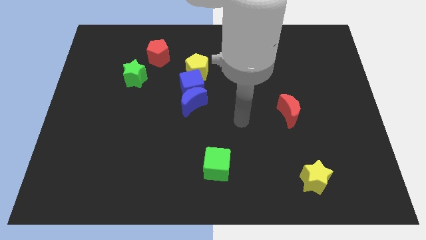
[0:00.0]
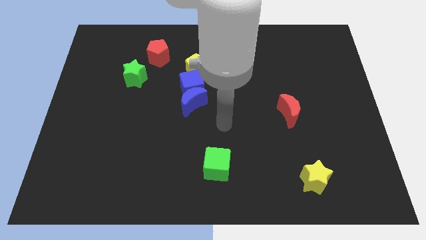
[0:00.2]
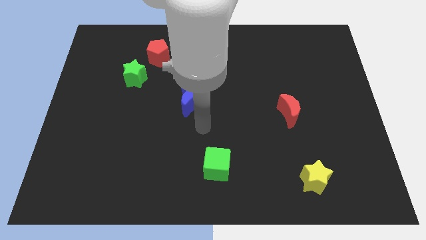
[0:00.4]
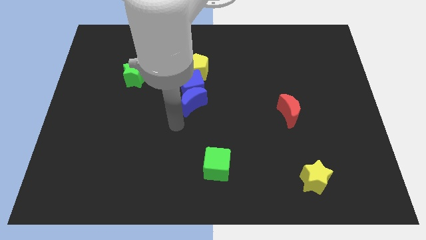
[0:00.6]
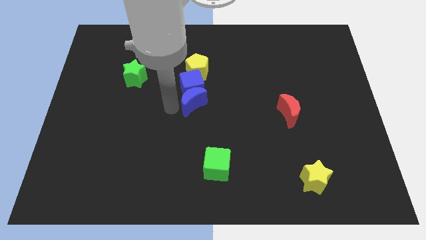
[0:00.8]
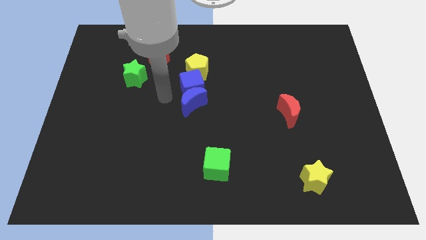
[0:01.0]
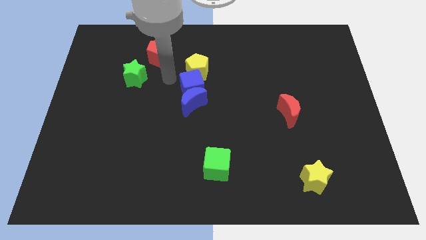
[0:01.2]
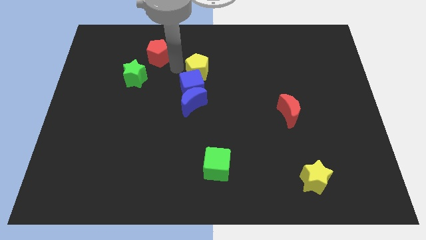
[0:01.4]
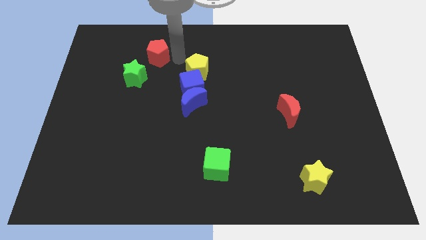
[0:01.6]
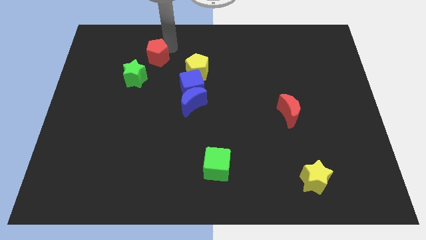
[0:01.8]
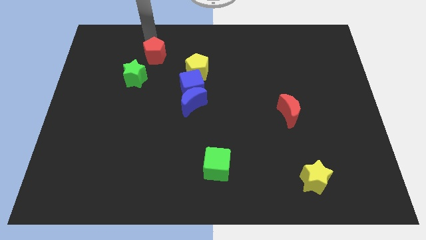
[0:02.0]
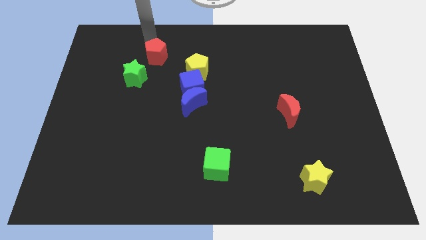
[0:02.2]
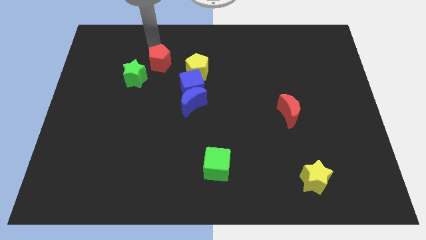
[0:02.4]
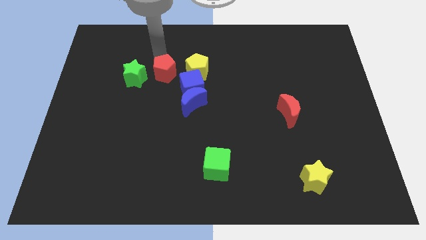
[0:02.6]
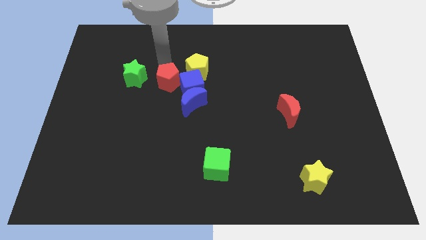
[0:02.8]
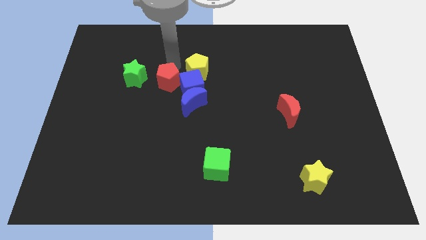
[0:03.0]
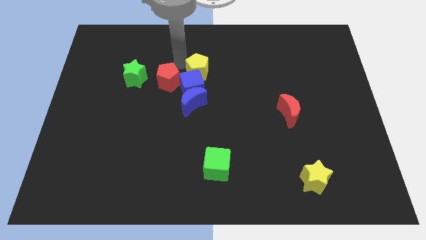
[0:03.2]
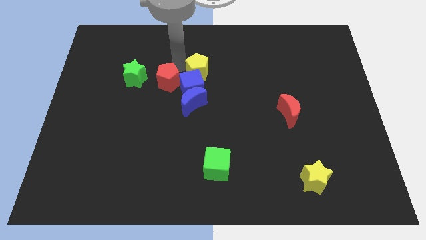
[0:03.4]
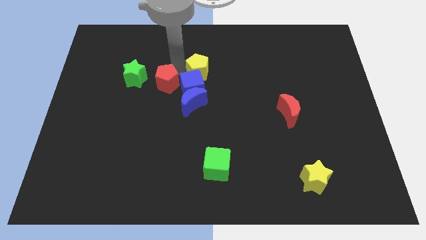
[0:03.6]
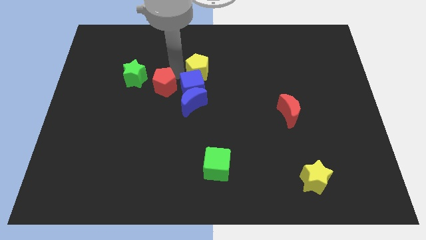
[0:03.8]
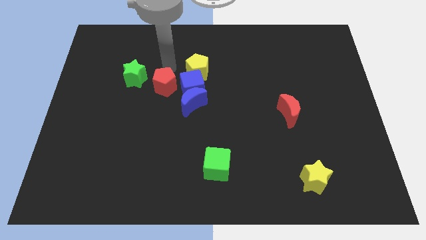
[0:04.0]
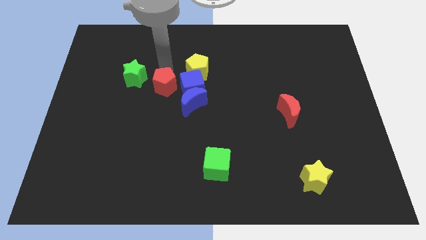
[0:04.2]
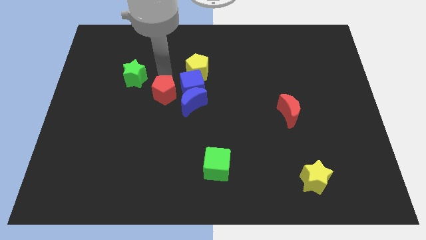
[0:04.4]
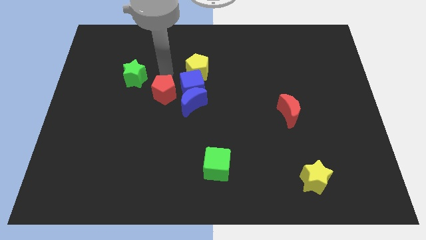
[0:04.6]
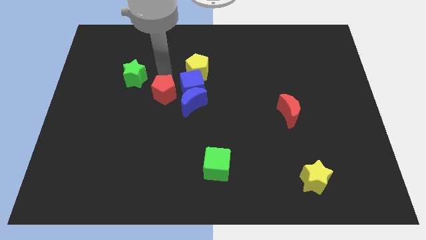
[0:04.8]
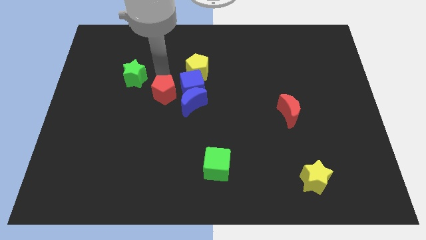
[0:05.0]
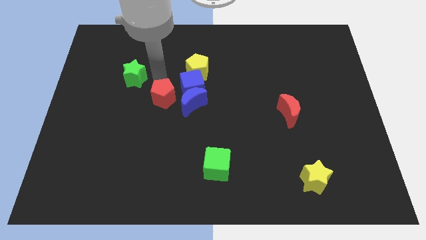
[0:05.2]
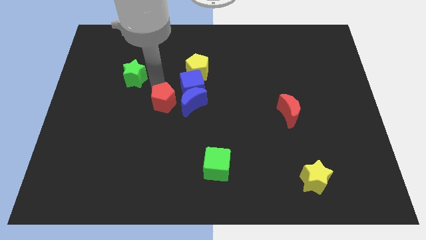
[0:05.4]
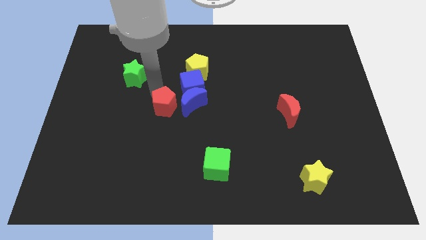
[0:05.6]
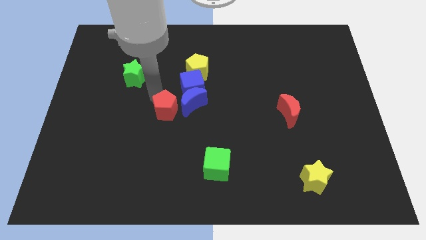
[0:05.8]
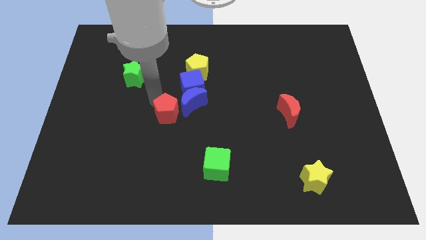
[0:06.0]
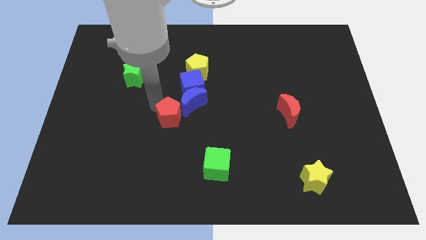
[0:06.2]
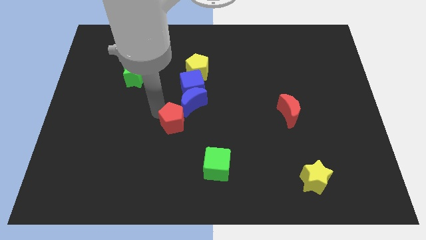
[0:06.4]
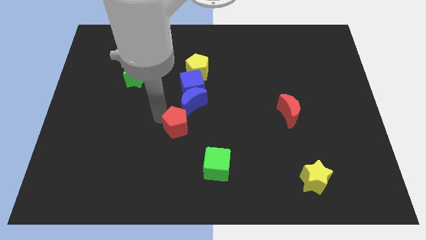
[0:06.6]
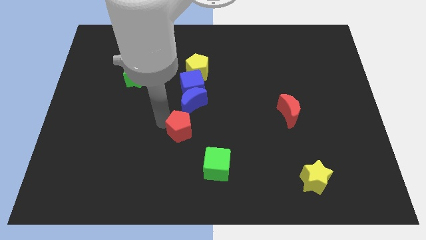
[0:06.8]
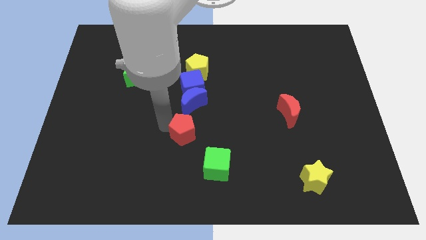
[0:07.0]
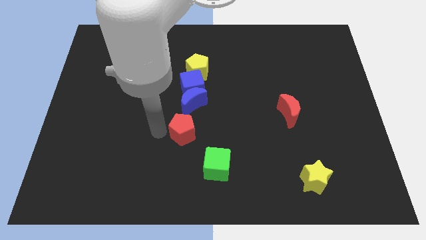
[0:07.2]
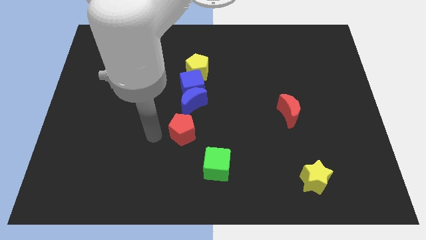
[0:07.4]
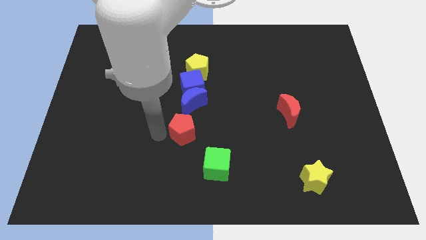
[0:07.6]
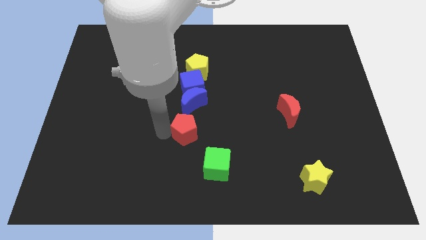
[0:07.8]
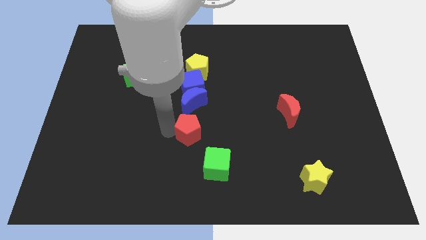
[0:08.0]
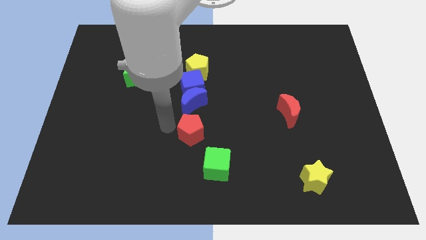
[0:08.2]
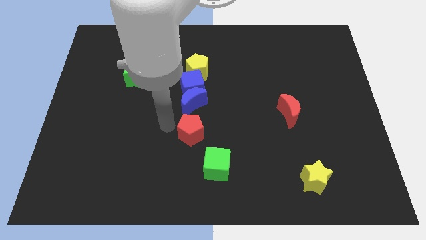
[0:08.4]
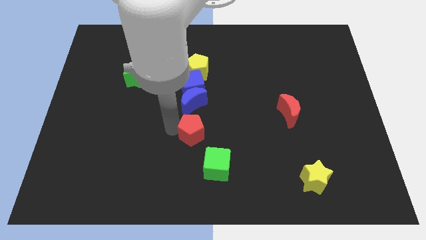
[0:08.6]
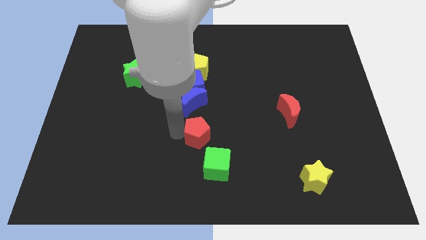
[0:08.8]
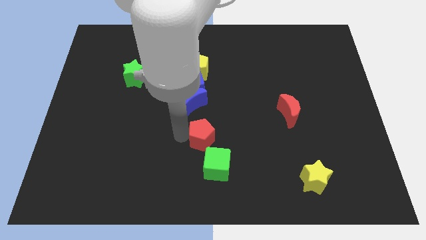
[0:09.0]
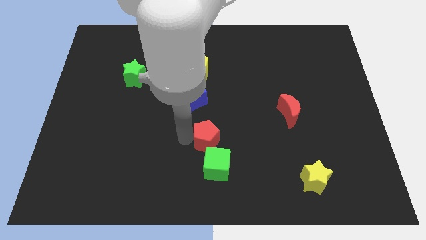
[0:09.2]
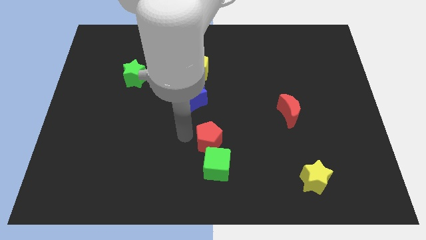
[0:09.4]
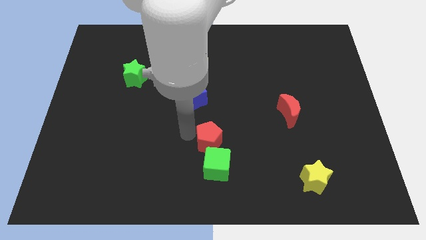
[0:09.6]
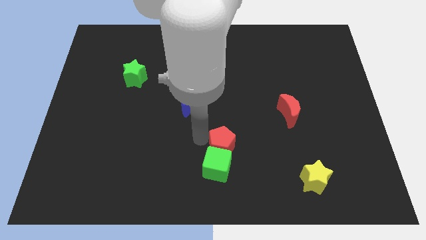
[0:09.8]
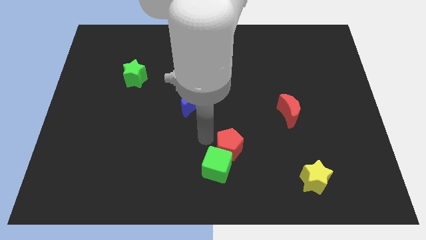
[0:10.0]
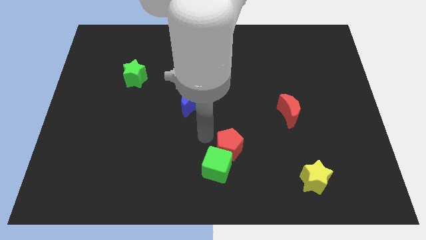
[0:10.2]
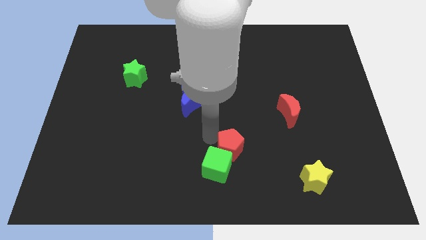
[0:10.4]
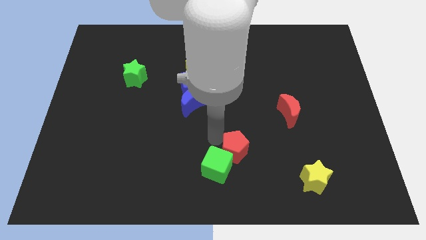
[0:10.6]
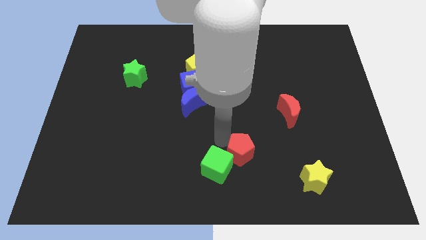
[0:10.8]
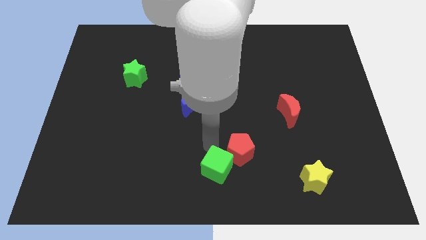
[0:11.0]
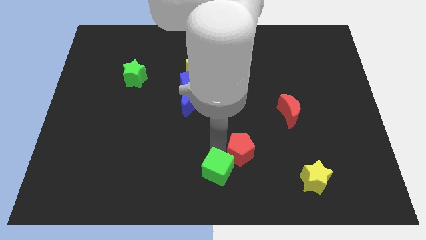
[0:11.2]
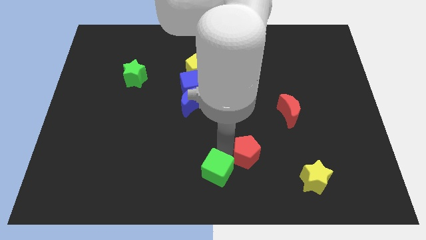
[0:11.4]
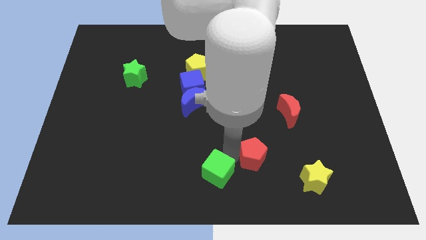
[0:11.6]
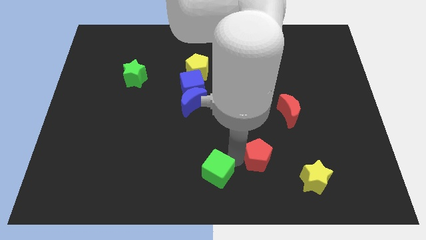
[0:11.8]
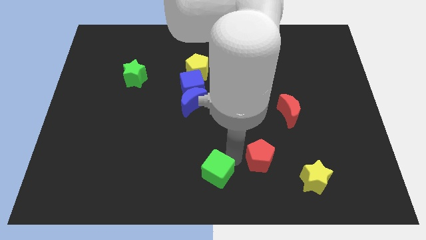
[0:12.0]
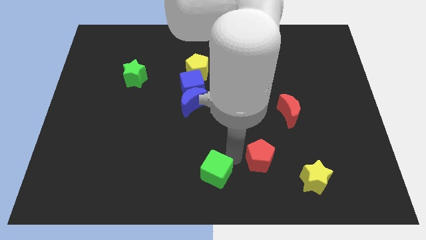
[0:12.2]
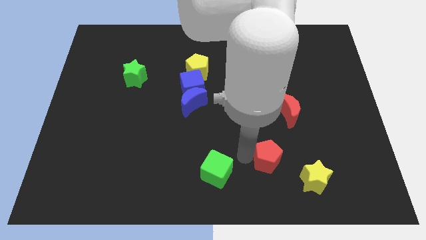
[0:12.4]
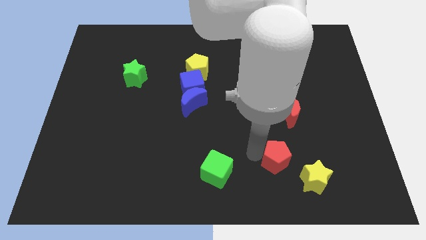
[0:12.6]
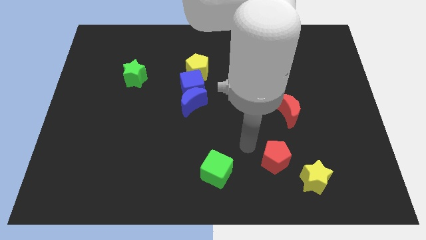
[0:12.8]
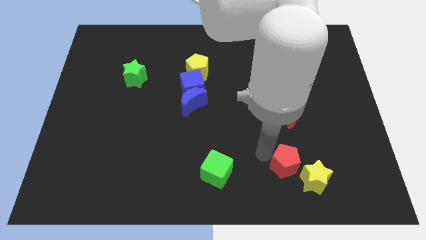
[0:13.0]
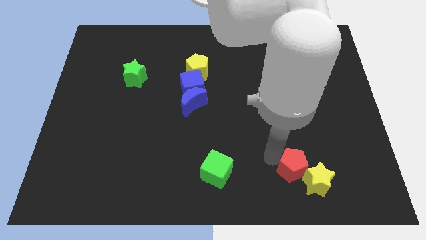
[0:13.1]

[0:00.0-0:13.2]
move the red pentagon next to the yellow star
